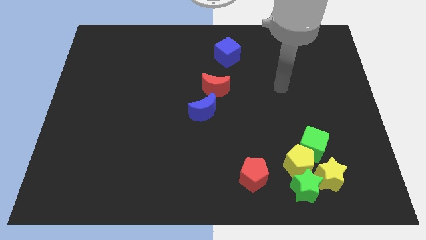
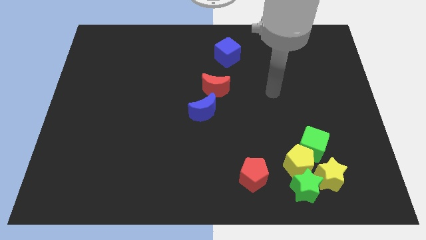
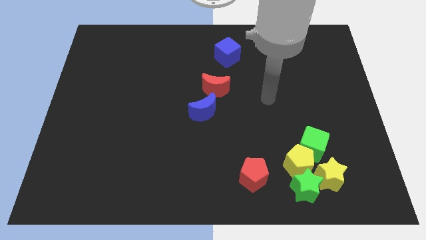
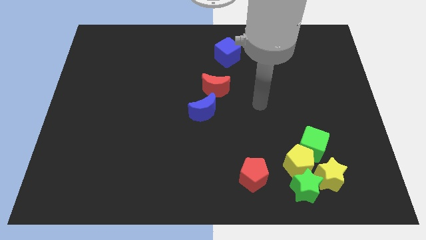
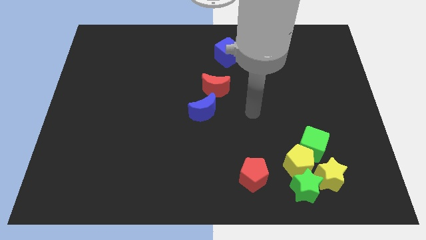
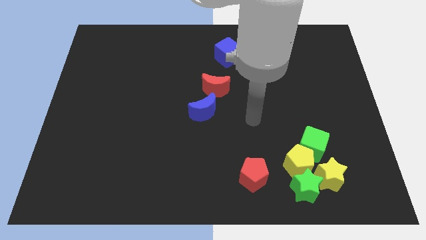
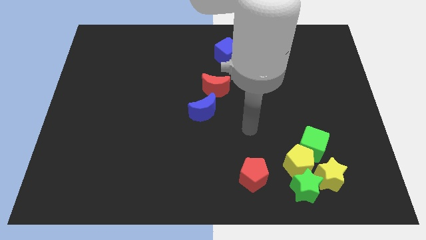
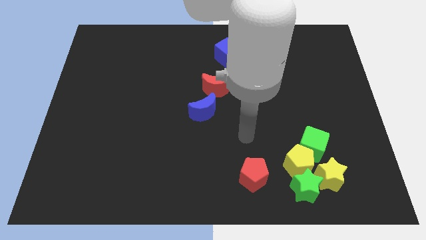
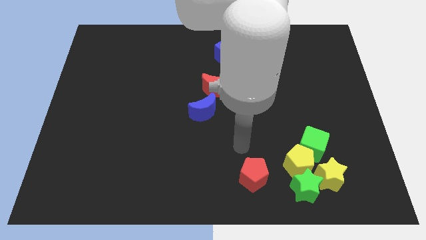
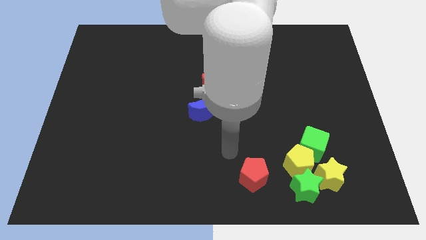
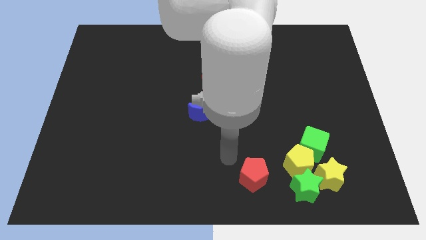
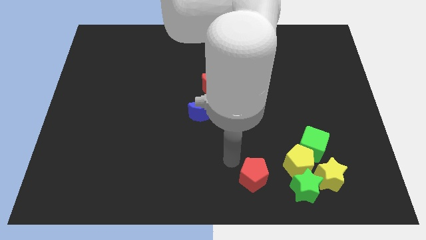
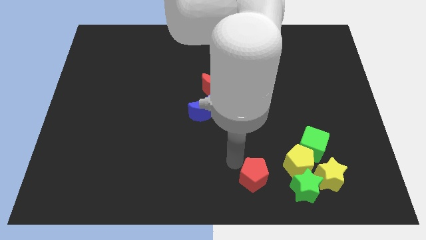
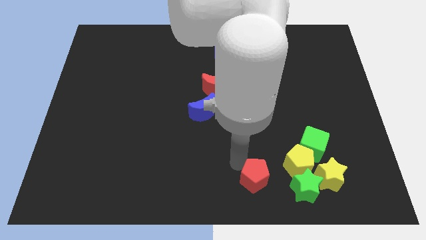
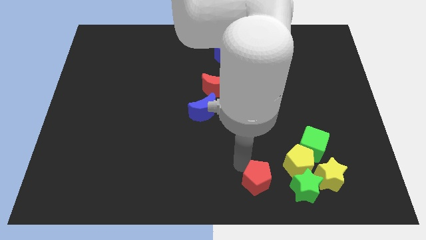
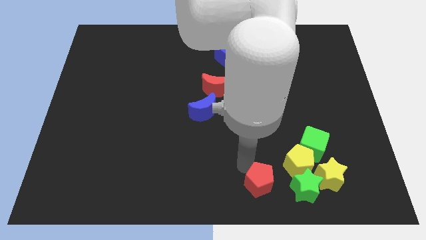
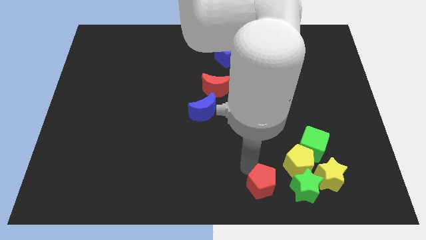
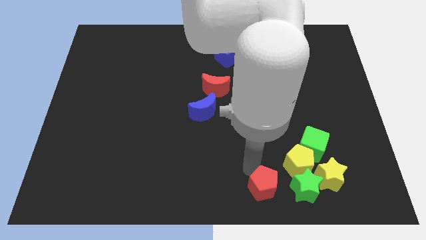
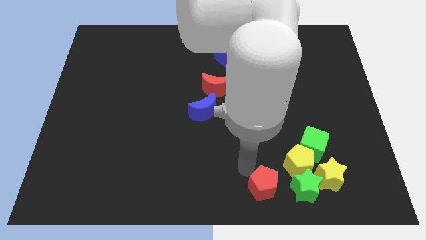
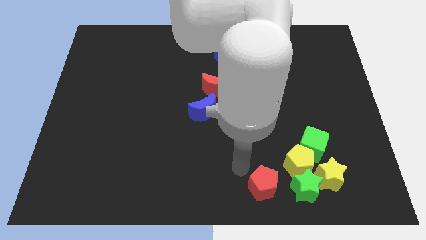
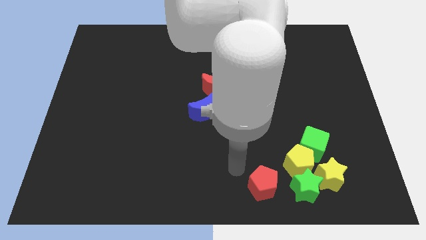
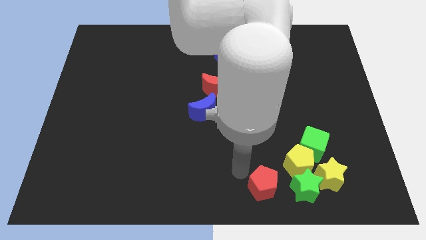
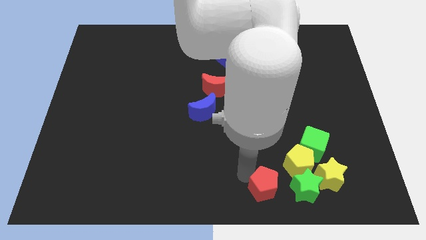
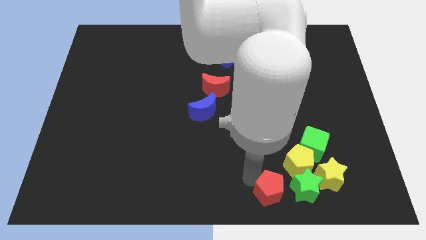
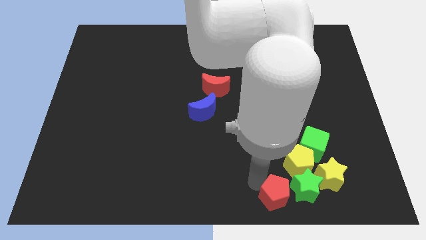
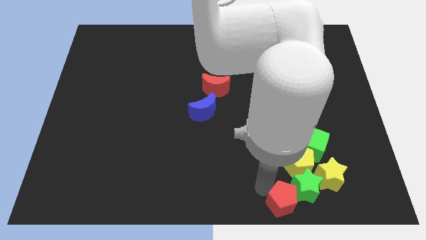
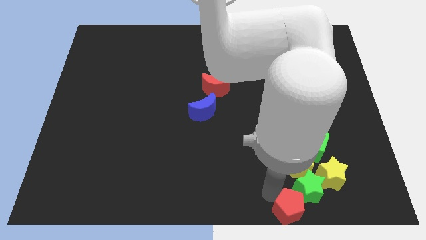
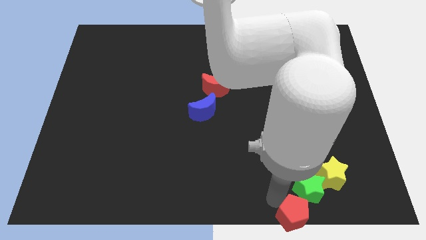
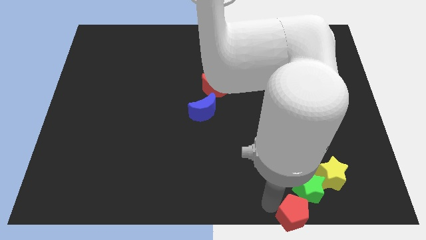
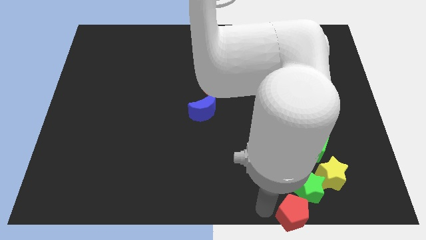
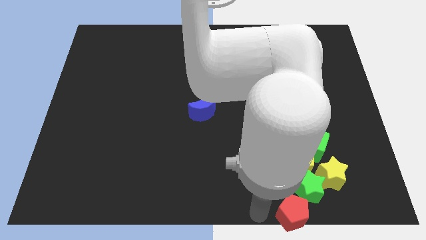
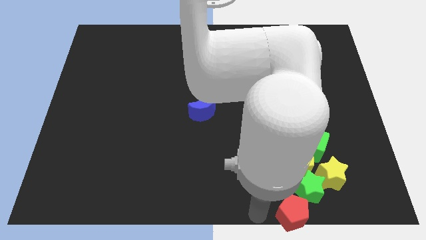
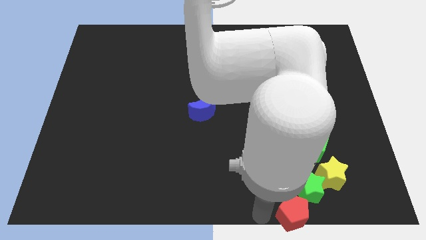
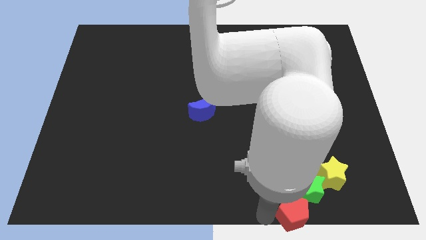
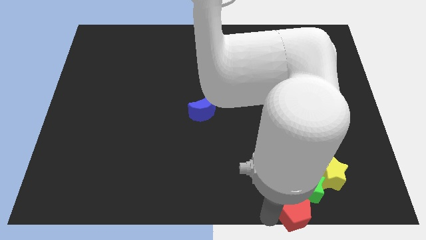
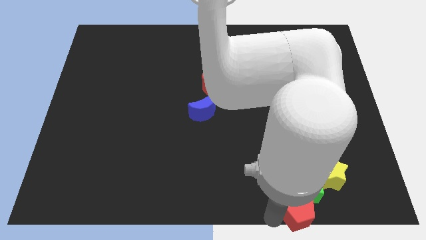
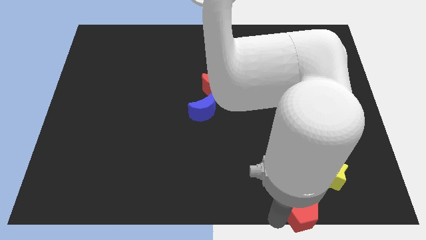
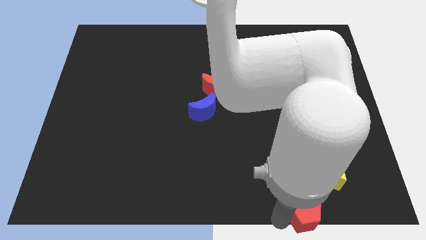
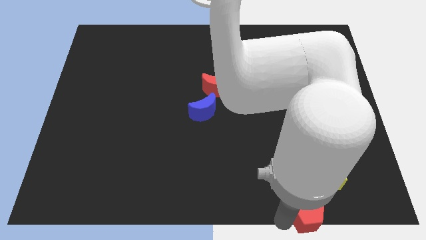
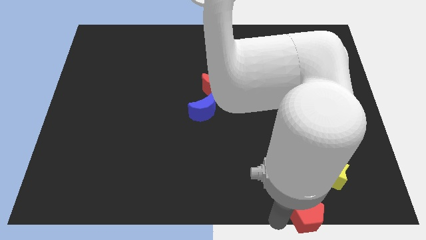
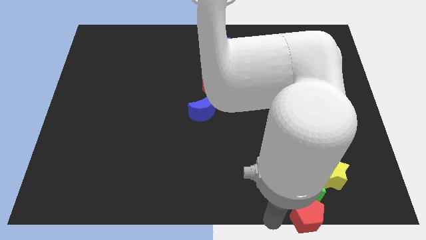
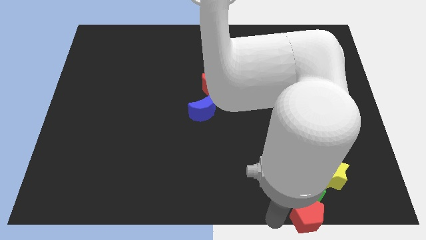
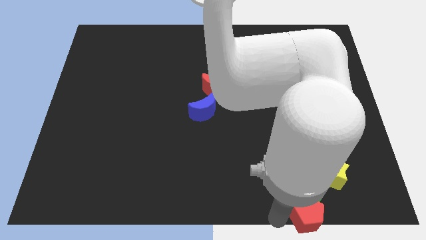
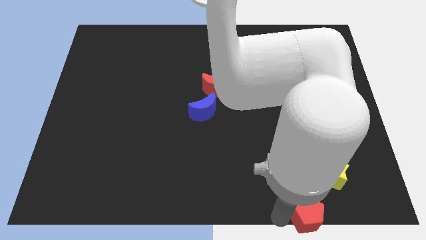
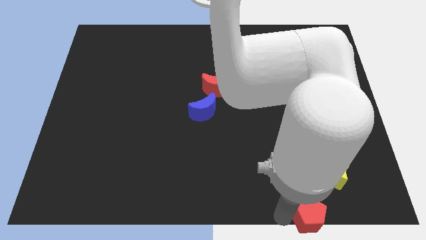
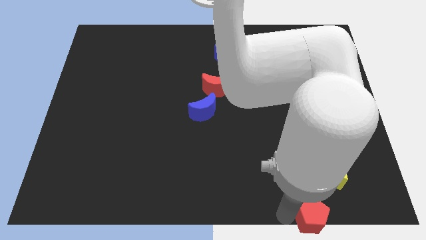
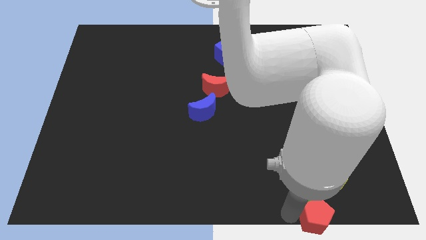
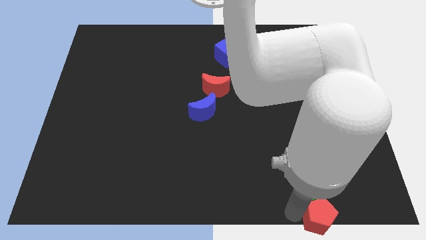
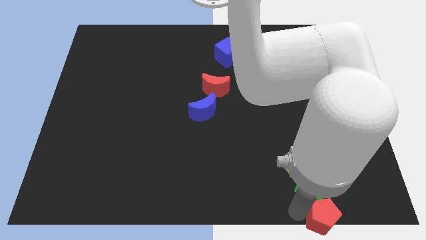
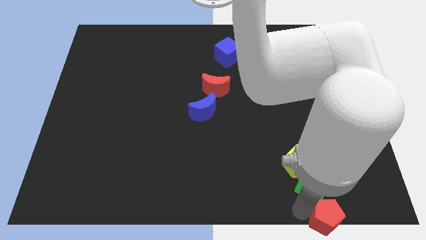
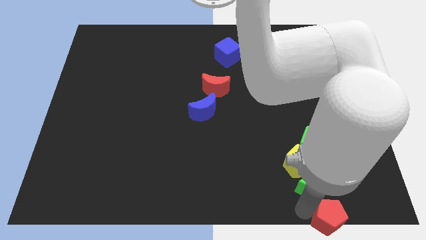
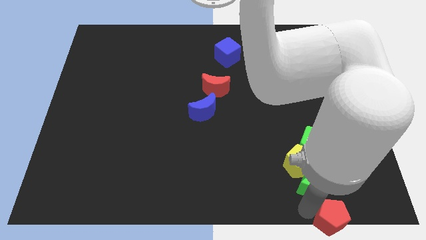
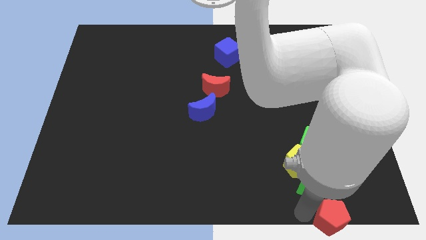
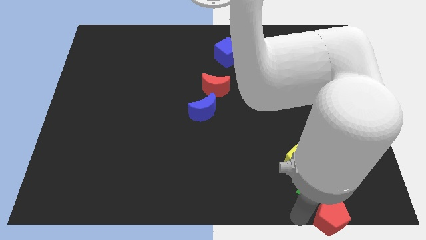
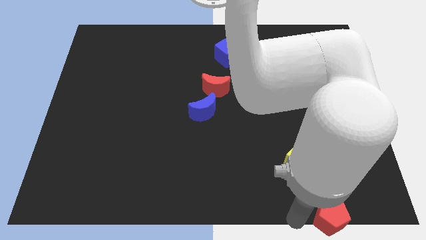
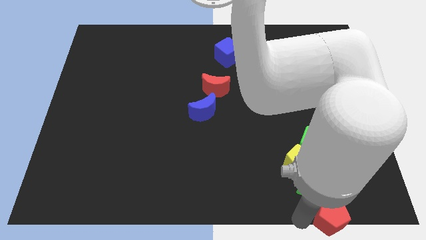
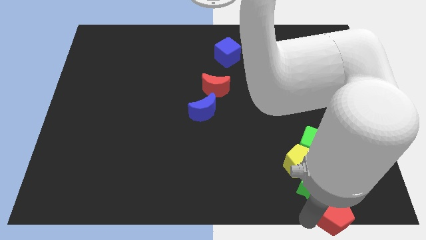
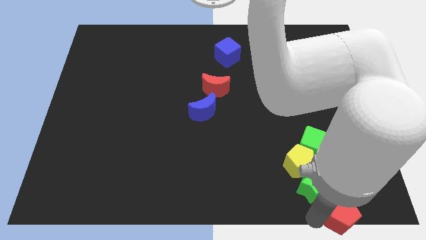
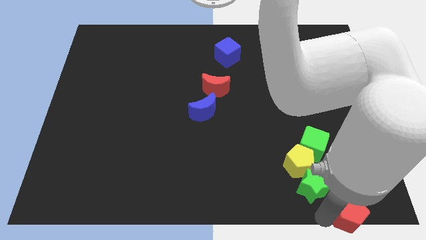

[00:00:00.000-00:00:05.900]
push the red pentagon to the bottom right corner
